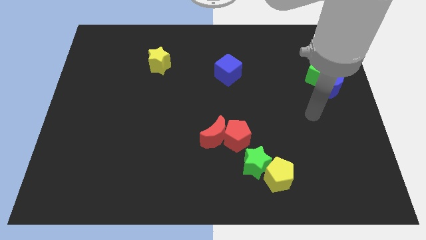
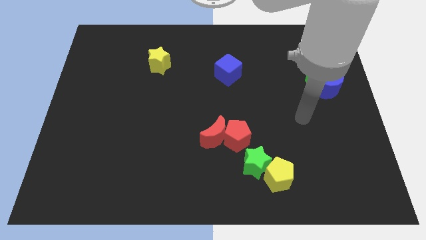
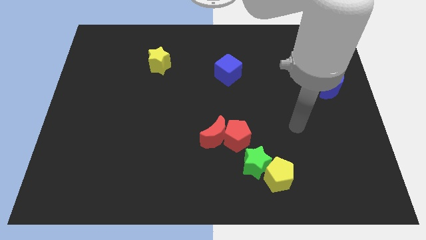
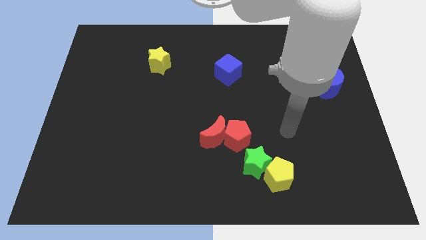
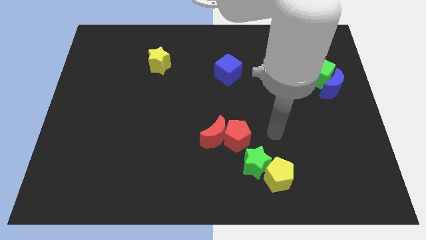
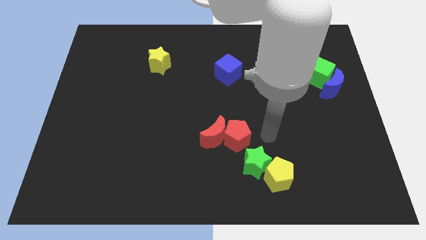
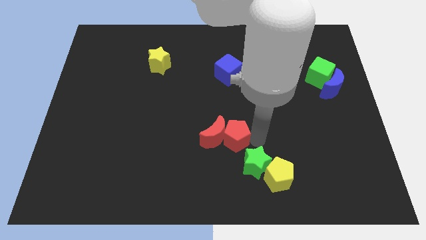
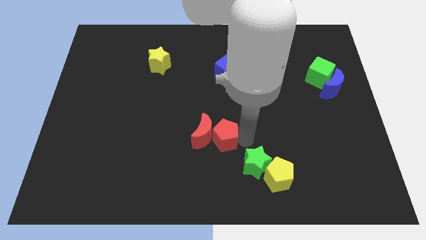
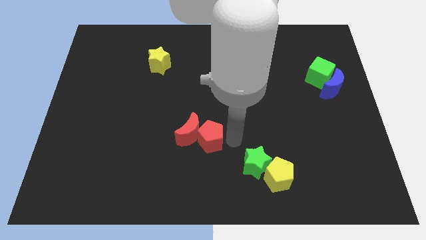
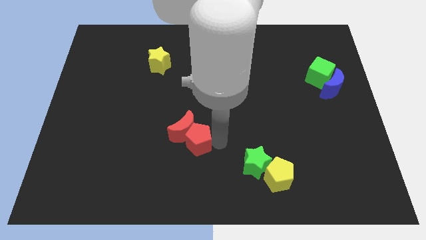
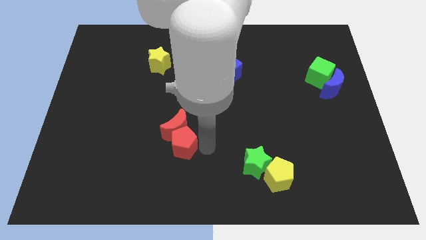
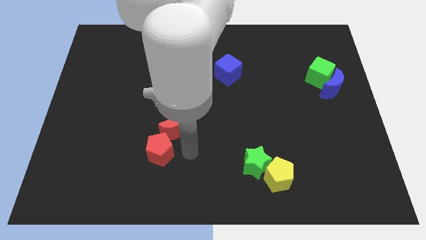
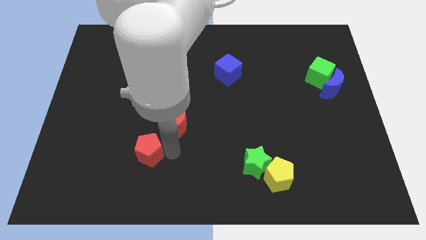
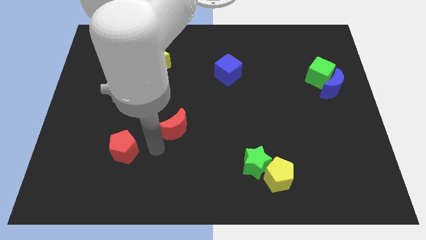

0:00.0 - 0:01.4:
separate the red moon from the red pentagon

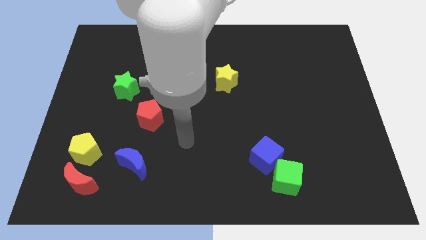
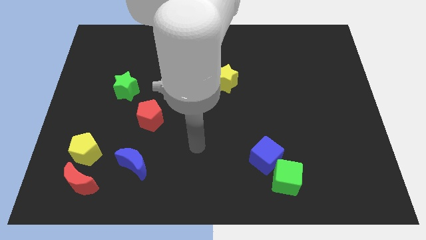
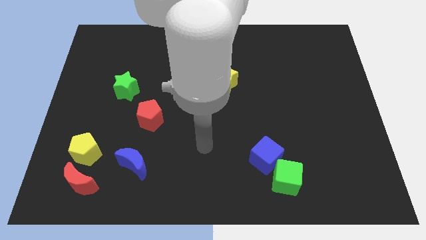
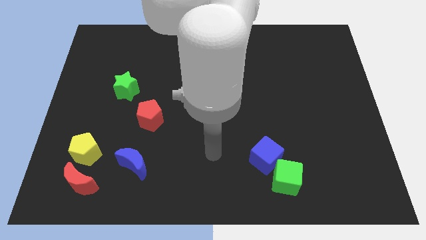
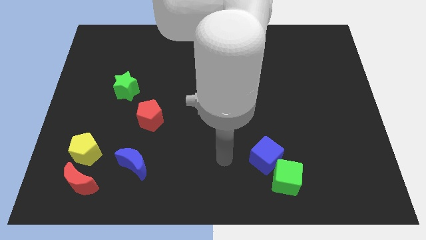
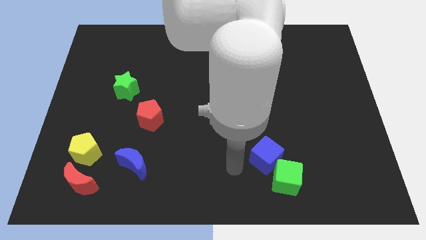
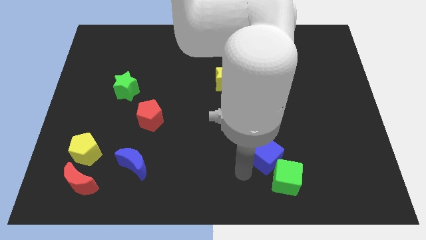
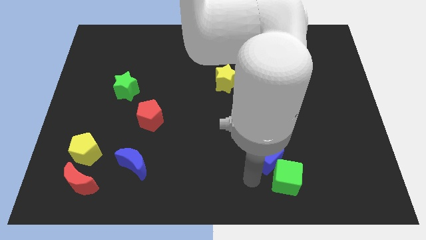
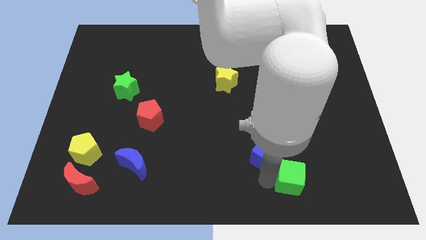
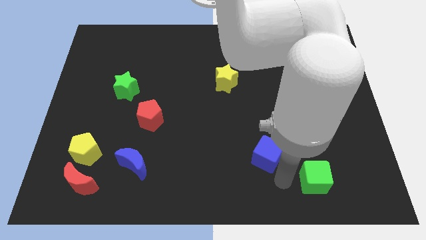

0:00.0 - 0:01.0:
move the blue cube away from the green cube

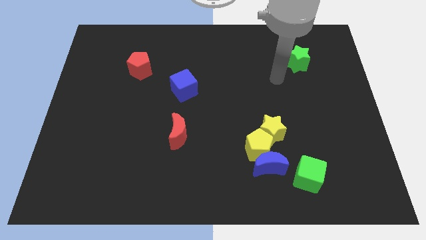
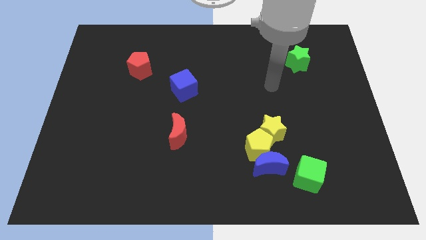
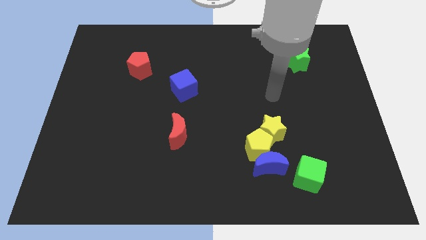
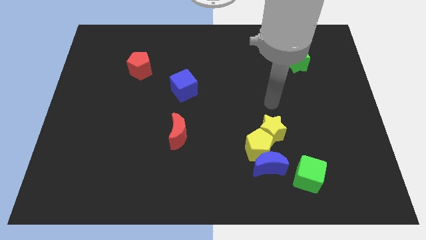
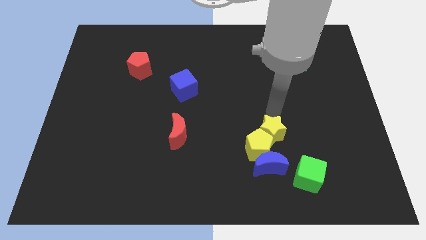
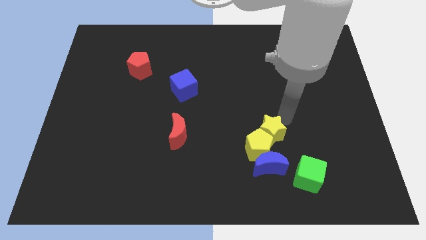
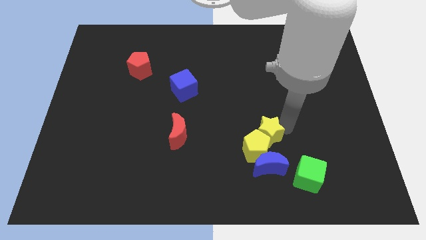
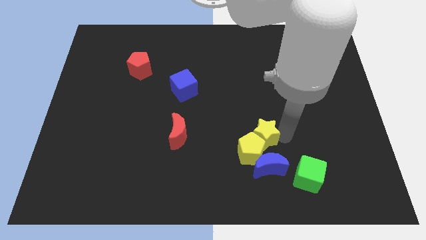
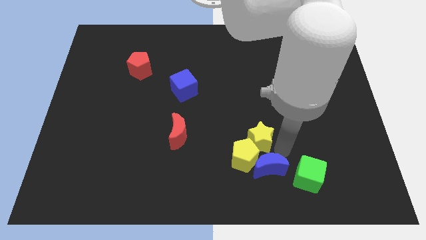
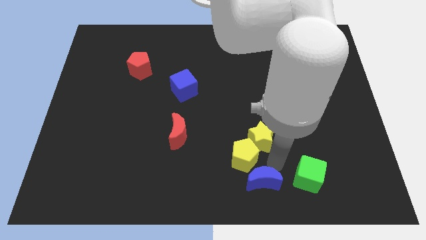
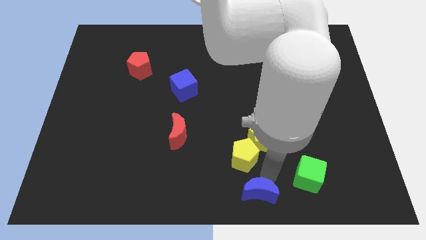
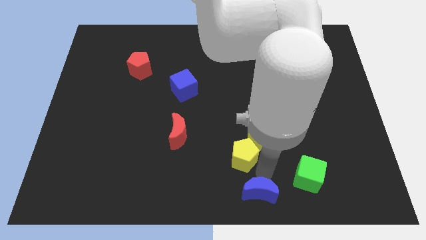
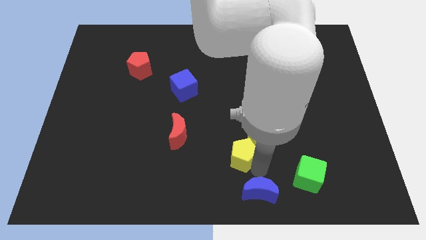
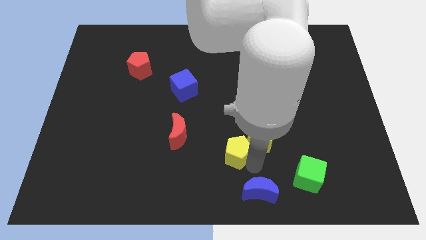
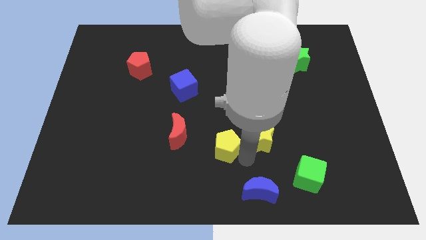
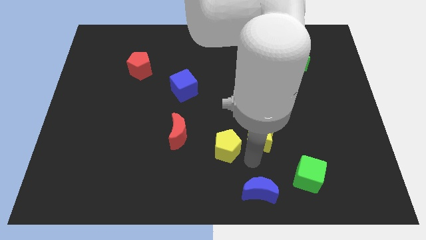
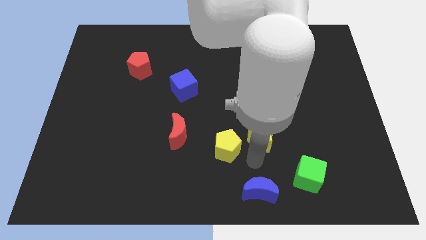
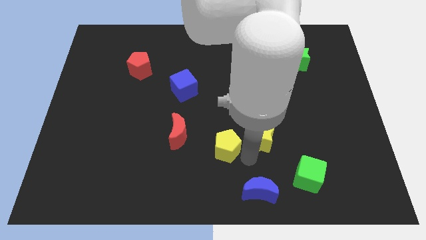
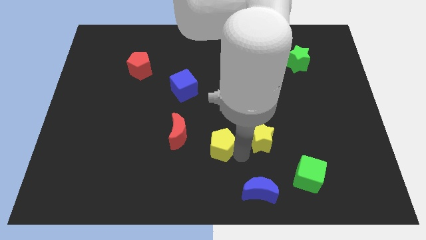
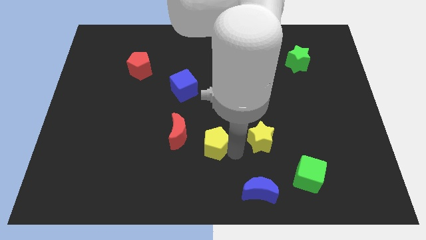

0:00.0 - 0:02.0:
separate the yellow pentagon from the blue moon and yellow star

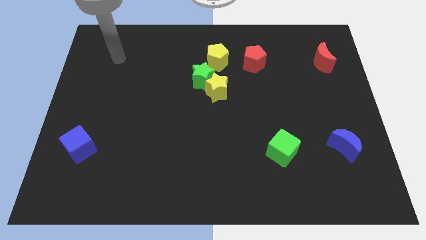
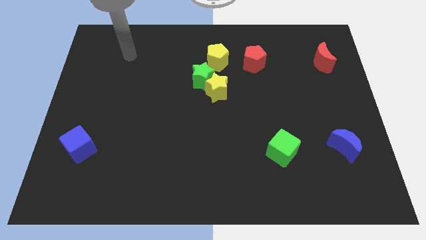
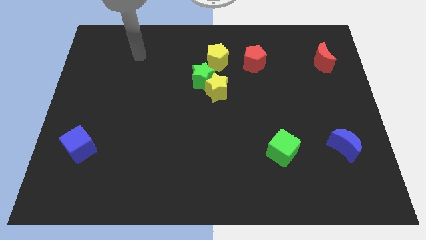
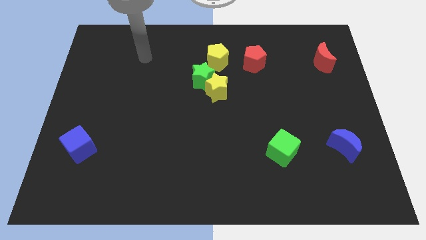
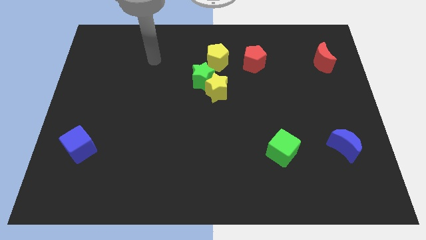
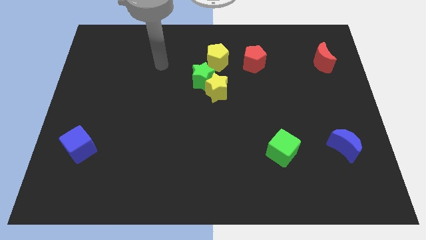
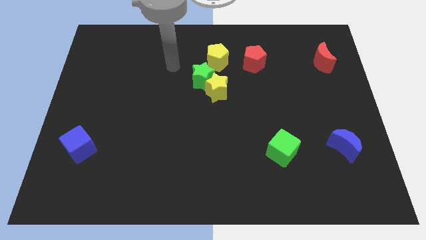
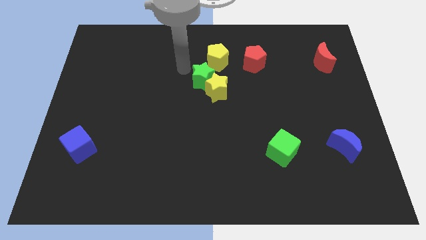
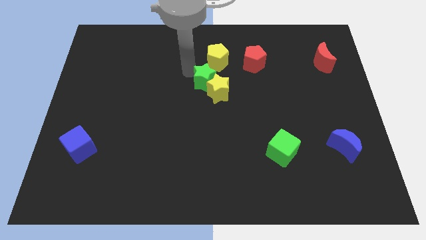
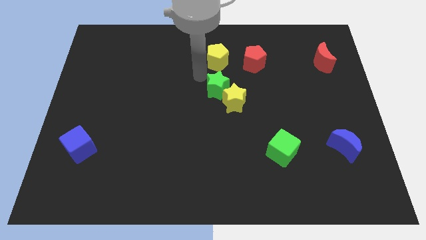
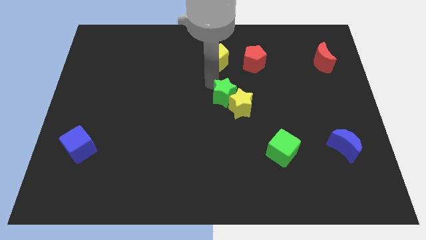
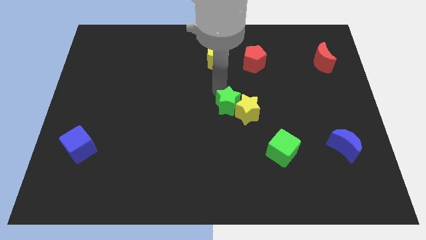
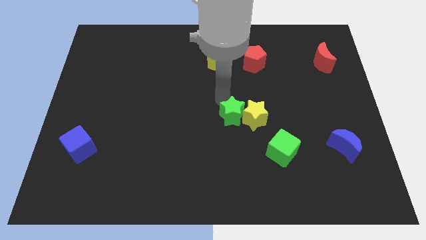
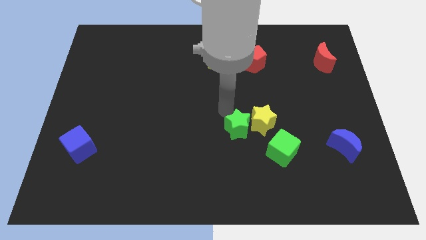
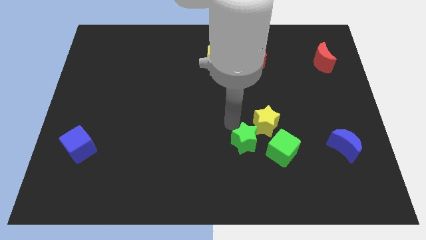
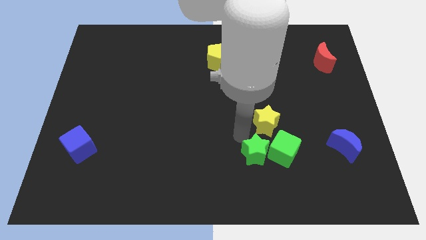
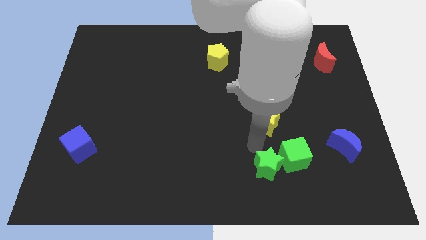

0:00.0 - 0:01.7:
separate the yellow star from the green star

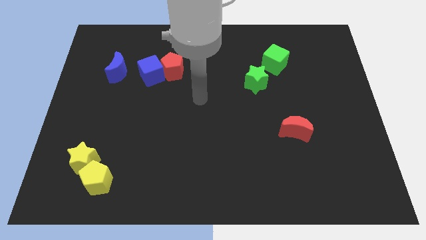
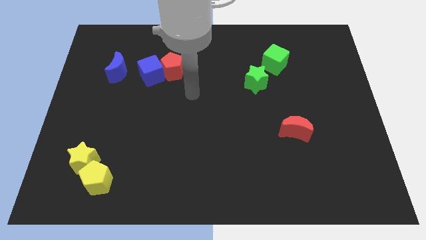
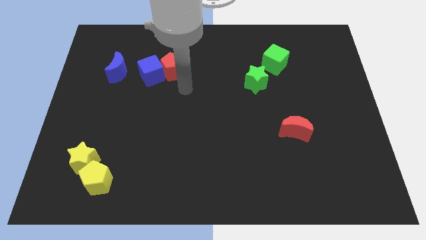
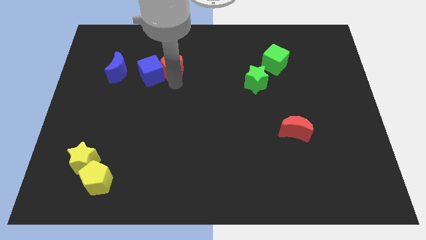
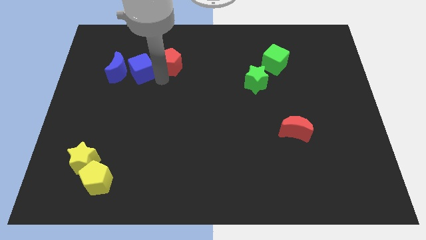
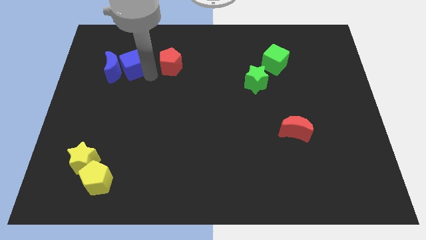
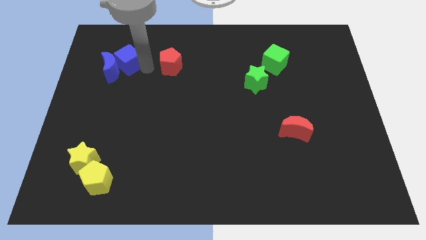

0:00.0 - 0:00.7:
separate the red pentagon from the blue cube

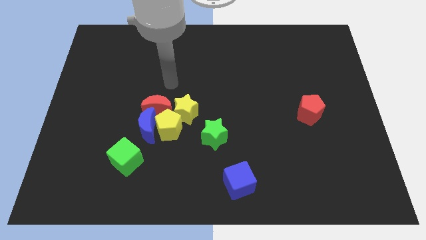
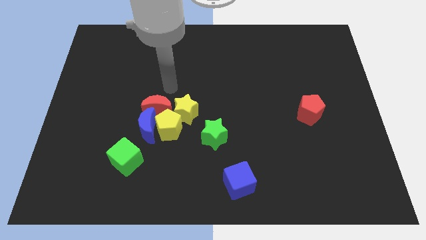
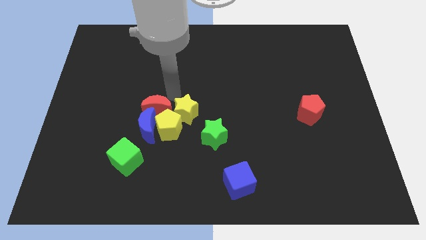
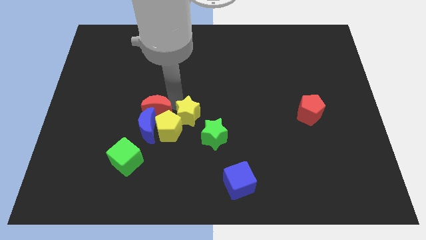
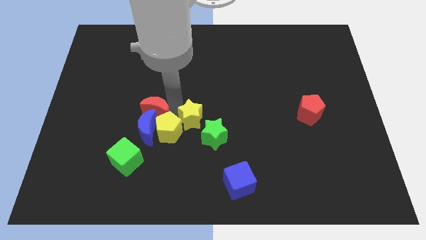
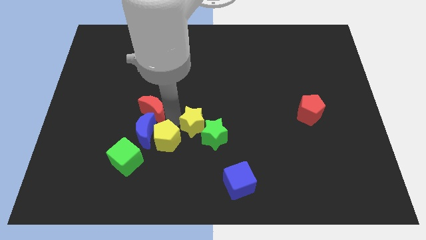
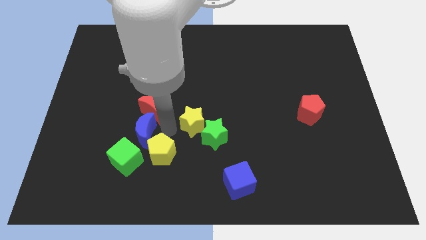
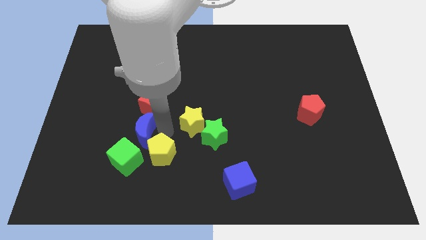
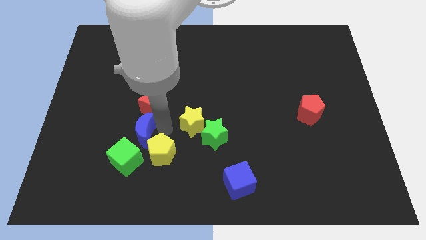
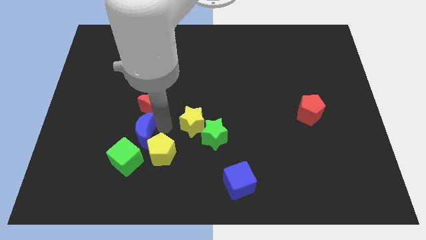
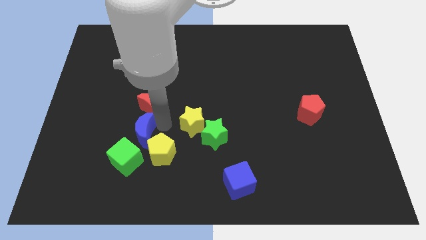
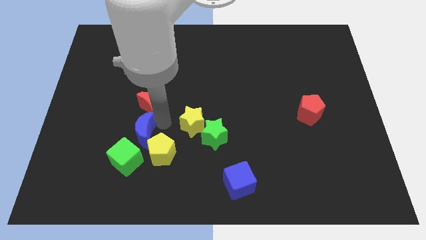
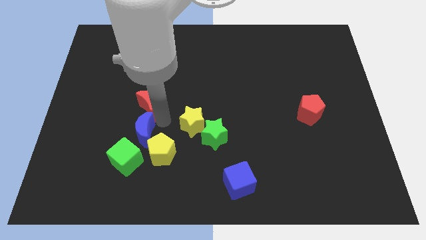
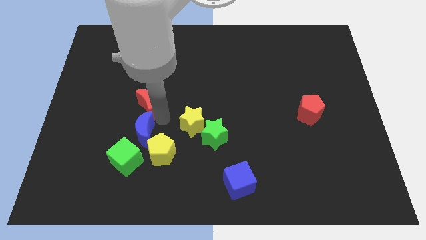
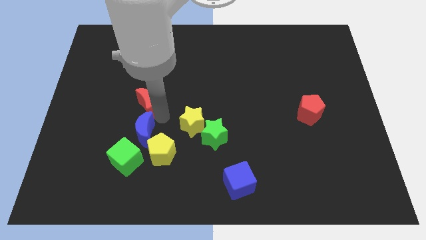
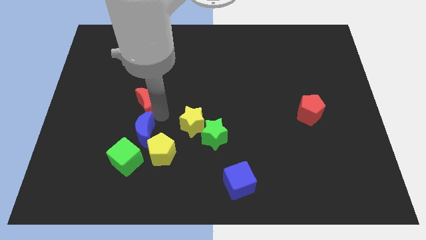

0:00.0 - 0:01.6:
separate the red moon from the clump

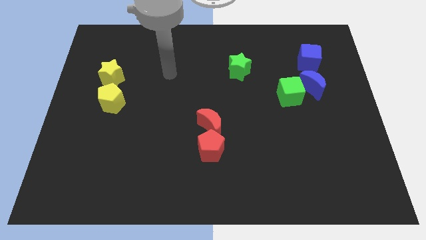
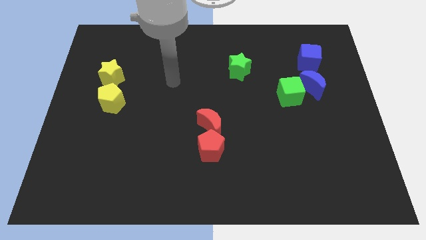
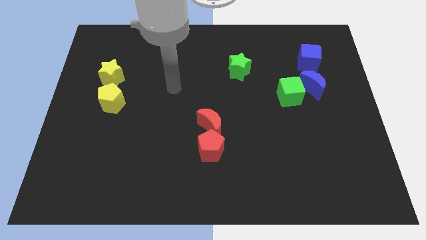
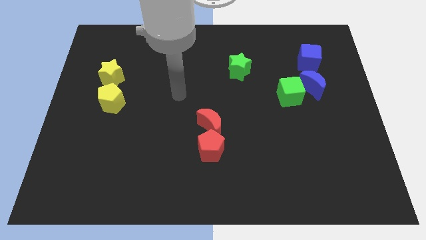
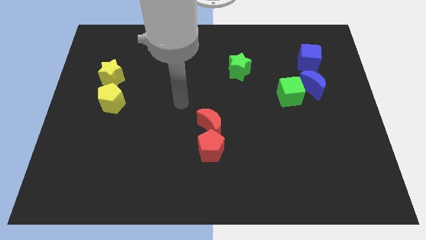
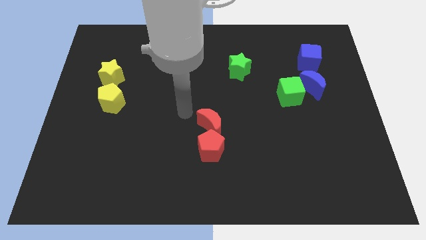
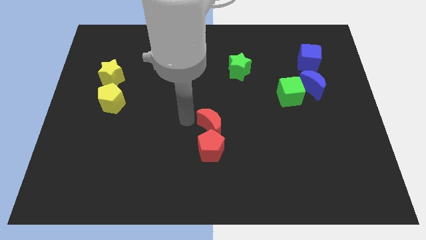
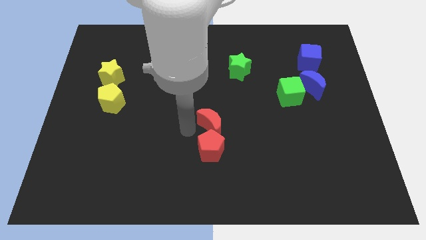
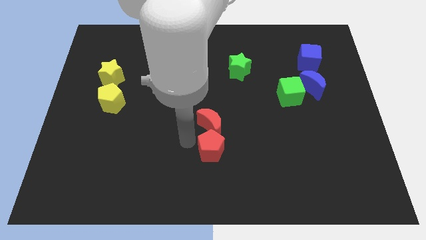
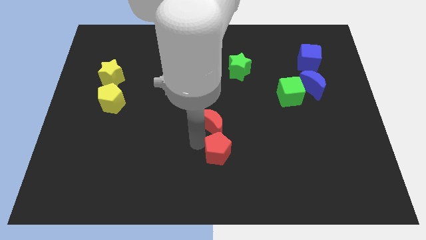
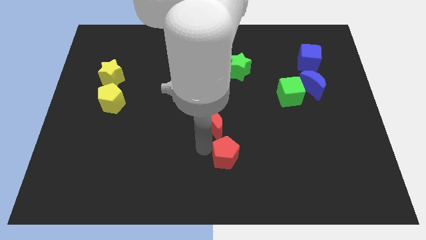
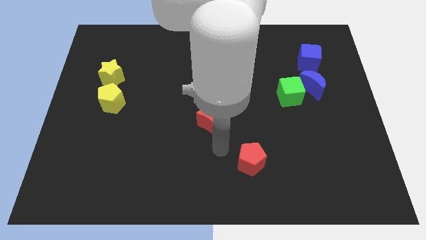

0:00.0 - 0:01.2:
move the red moon away from the red pentagon
